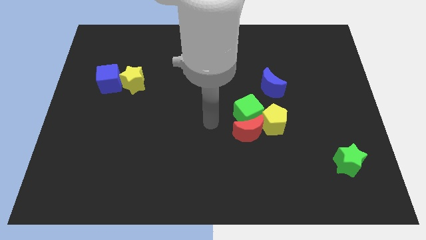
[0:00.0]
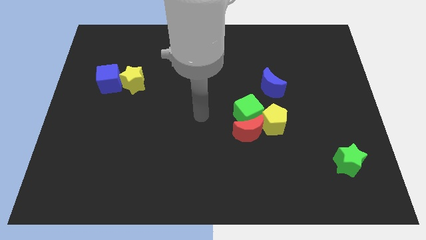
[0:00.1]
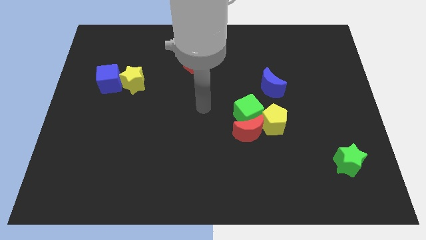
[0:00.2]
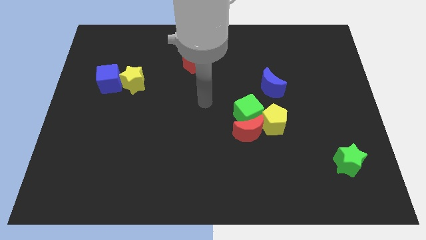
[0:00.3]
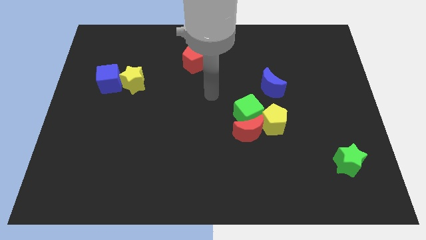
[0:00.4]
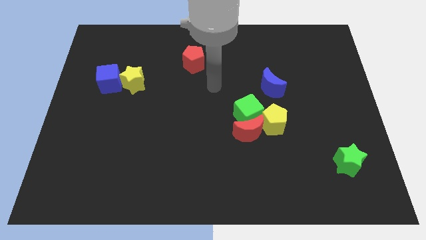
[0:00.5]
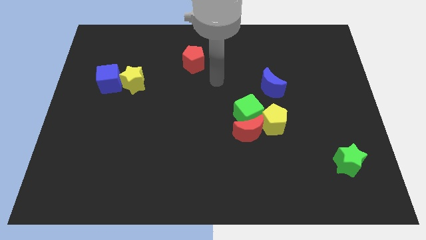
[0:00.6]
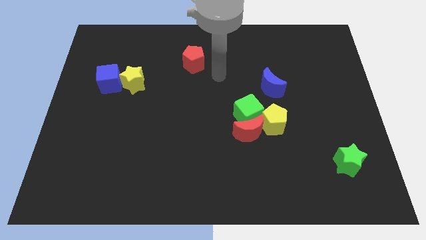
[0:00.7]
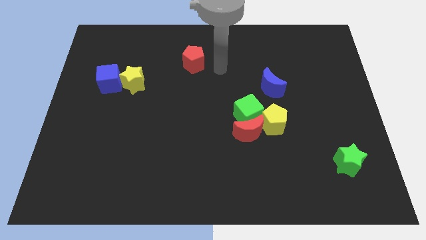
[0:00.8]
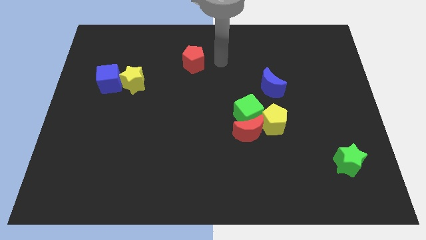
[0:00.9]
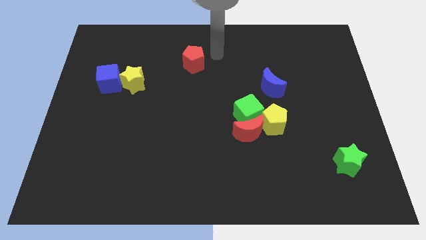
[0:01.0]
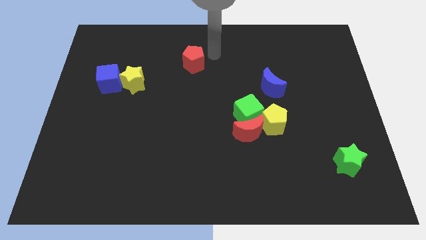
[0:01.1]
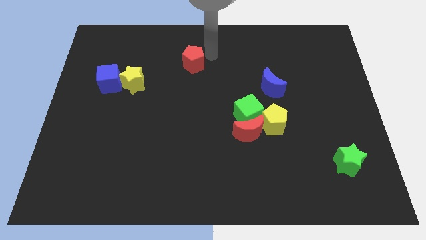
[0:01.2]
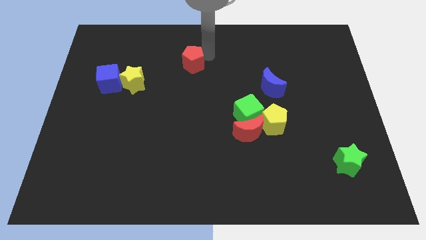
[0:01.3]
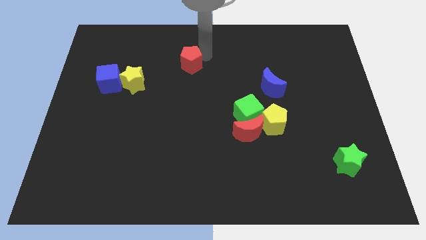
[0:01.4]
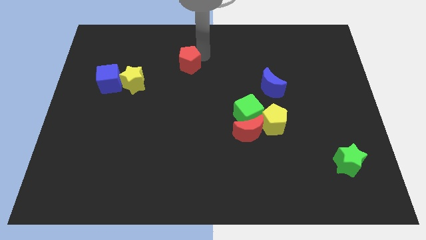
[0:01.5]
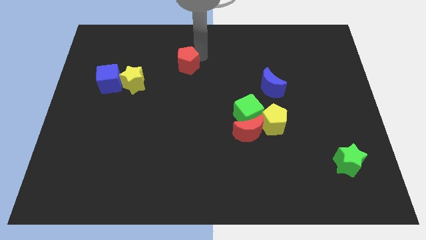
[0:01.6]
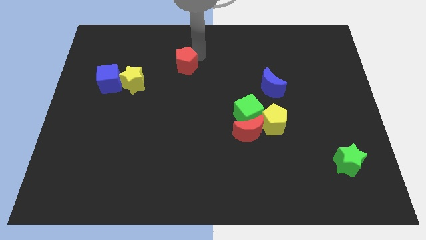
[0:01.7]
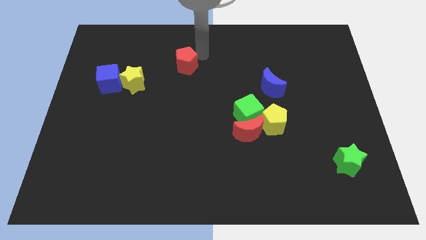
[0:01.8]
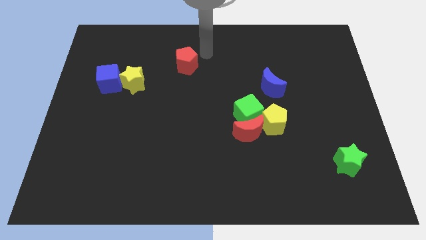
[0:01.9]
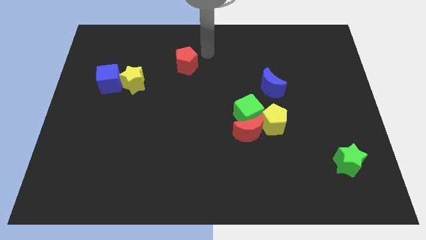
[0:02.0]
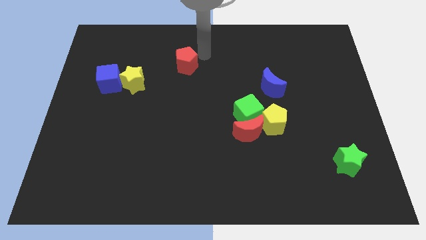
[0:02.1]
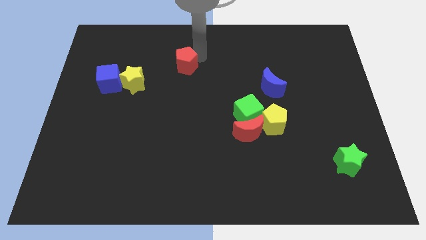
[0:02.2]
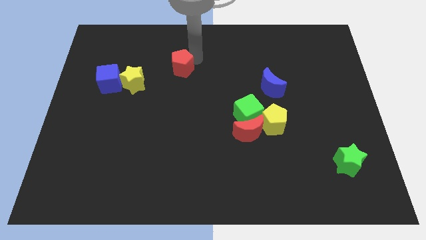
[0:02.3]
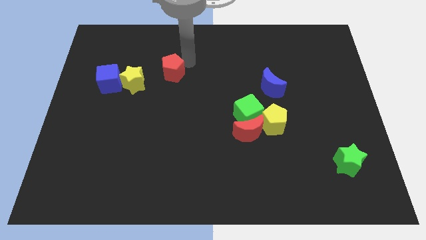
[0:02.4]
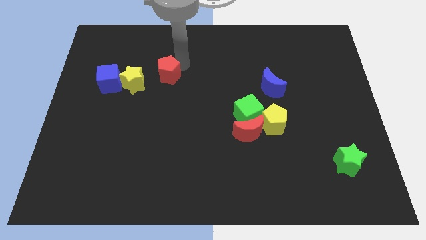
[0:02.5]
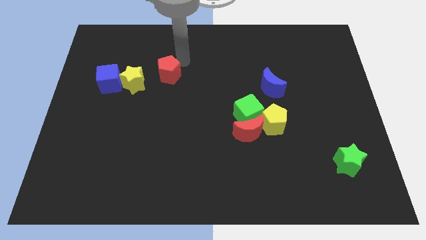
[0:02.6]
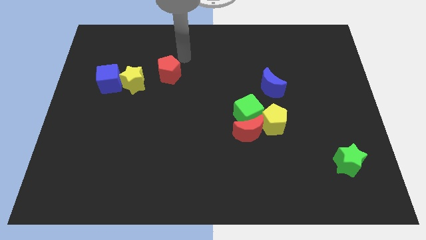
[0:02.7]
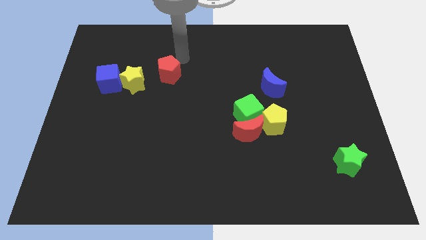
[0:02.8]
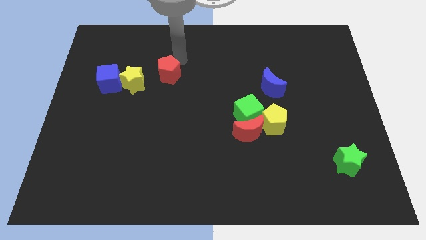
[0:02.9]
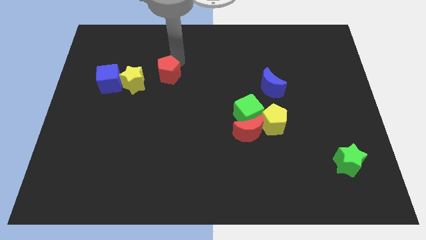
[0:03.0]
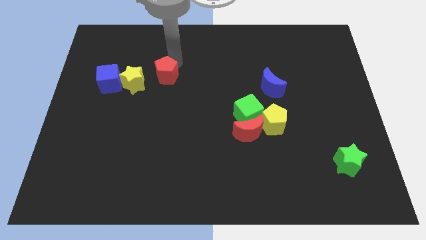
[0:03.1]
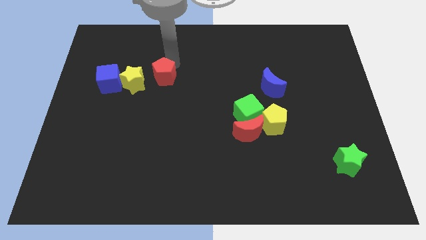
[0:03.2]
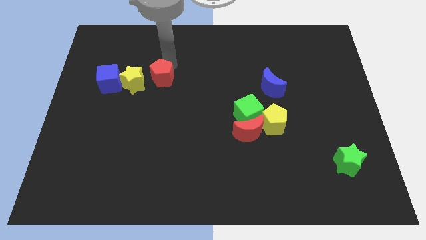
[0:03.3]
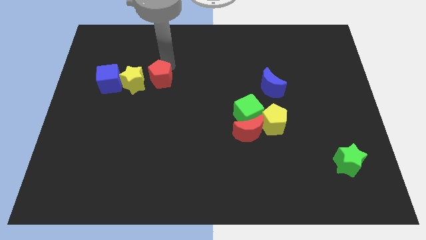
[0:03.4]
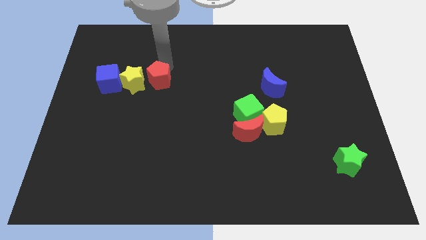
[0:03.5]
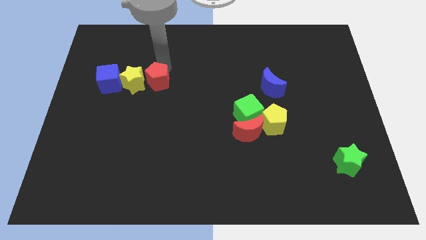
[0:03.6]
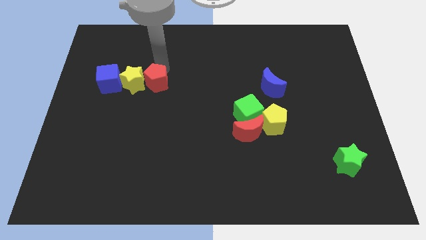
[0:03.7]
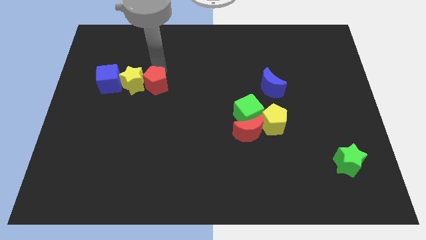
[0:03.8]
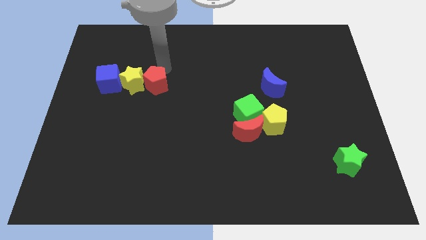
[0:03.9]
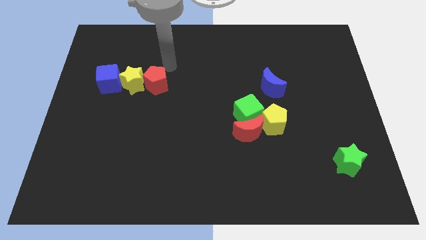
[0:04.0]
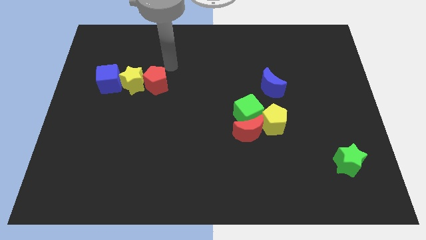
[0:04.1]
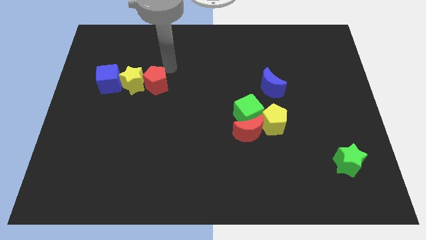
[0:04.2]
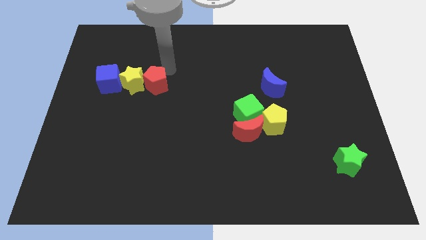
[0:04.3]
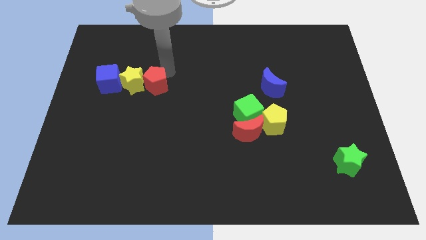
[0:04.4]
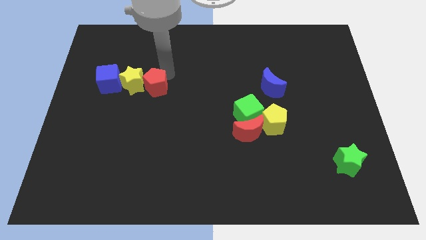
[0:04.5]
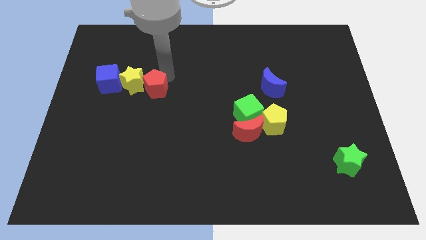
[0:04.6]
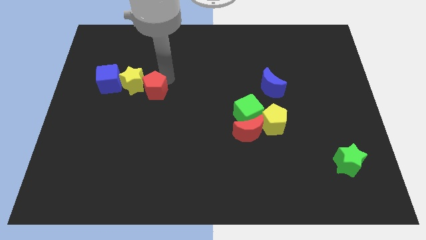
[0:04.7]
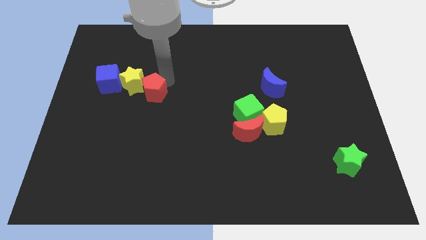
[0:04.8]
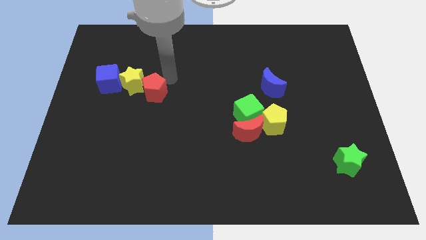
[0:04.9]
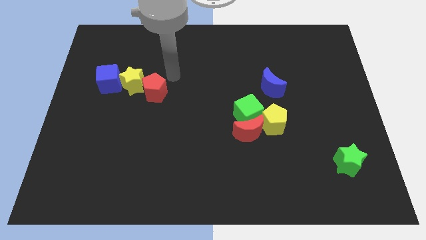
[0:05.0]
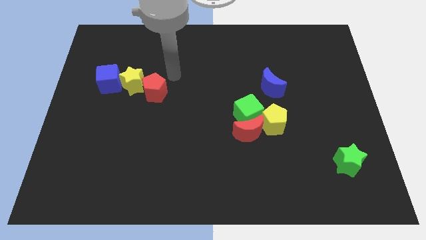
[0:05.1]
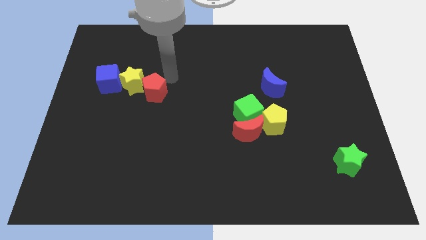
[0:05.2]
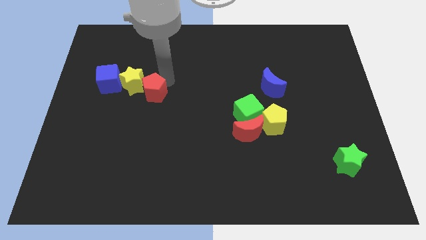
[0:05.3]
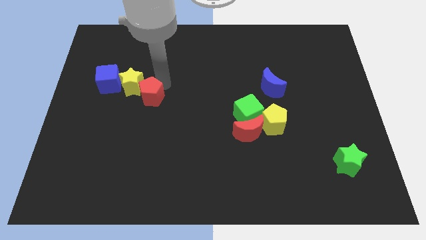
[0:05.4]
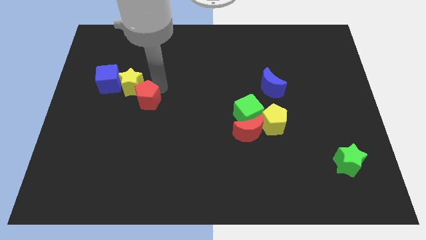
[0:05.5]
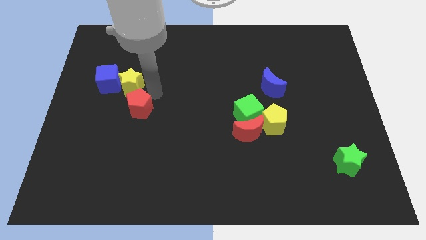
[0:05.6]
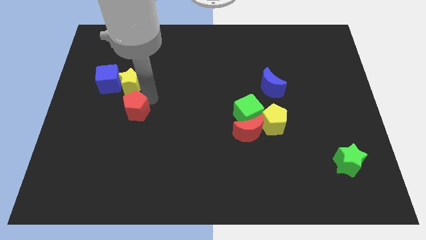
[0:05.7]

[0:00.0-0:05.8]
push the red pentagon down and left

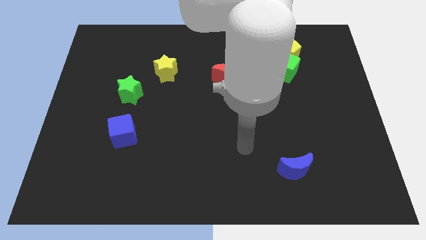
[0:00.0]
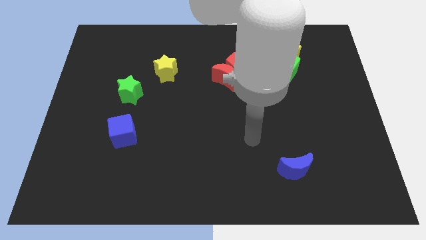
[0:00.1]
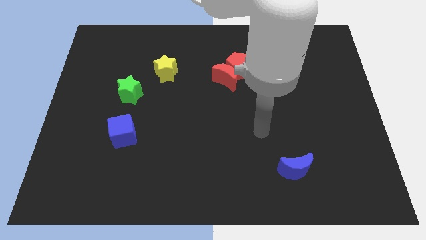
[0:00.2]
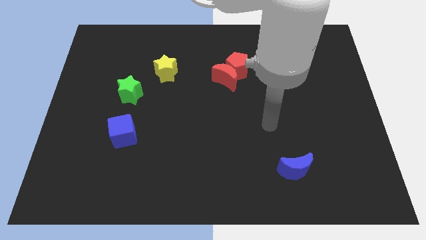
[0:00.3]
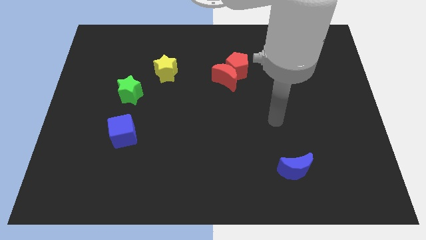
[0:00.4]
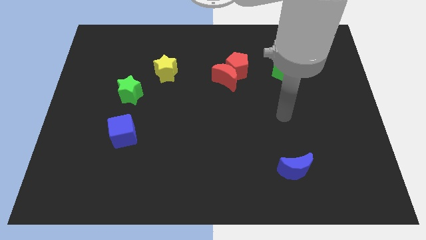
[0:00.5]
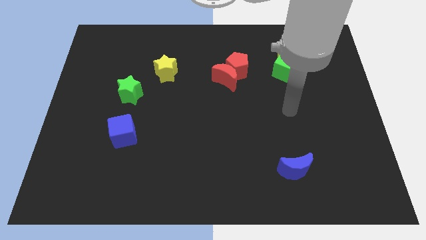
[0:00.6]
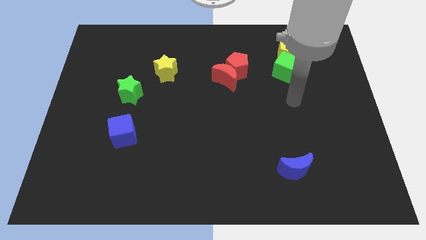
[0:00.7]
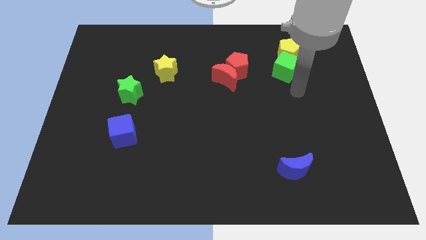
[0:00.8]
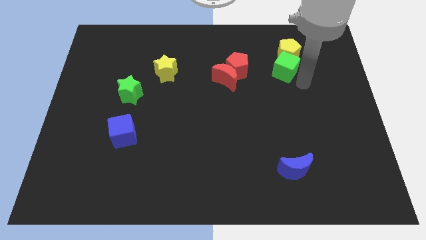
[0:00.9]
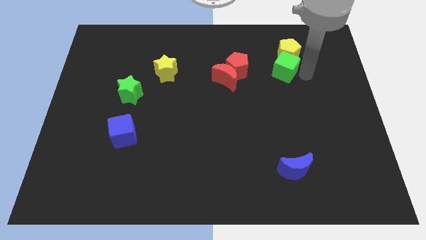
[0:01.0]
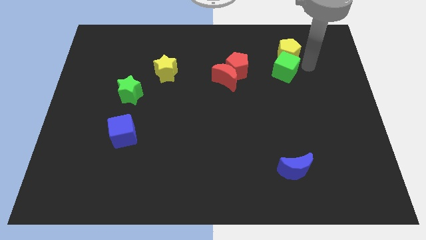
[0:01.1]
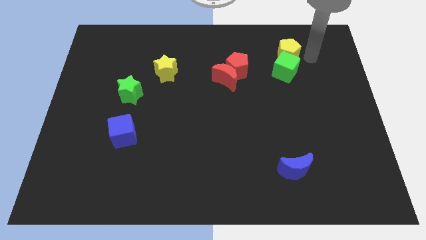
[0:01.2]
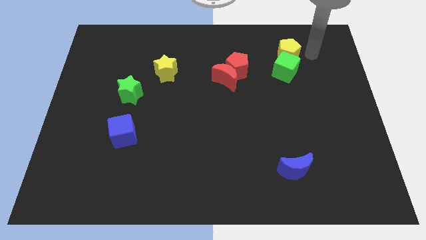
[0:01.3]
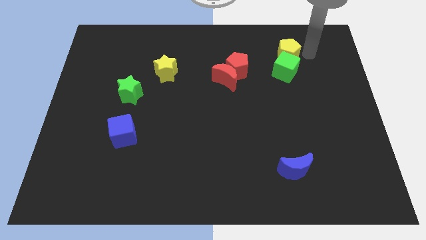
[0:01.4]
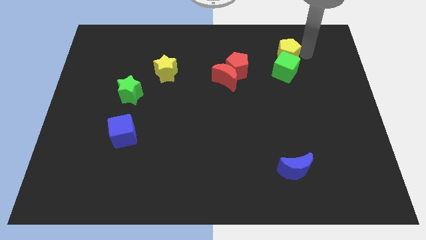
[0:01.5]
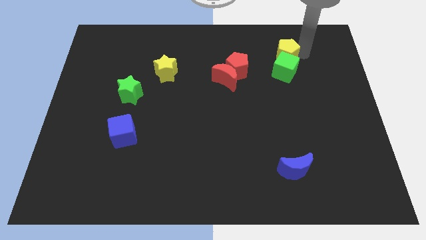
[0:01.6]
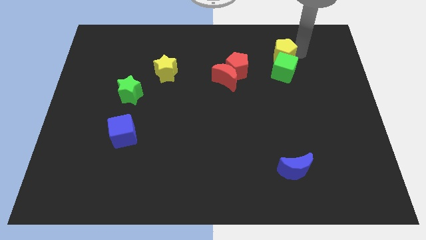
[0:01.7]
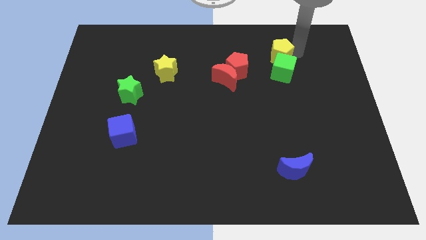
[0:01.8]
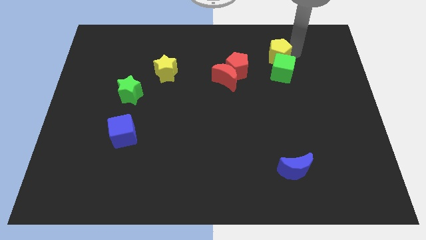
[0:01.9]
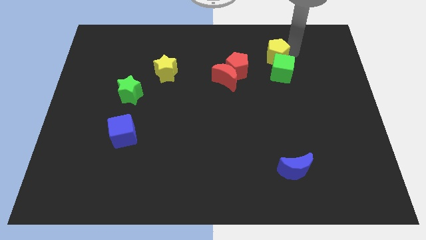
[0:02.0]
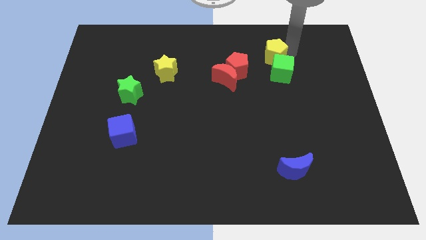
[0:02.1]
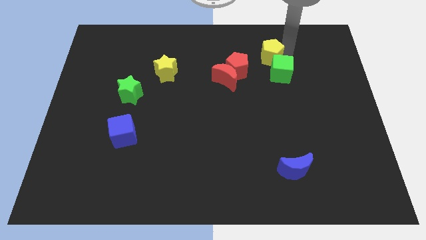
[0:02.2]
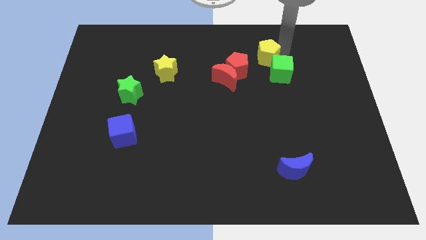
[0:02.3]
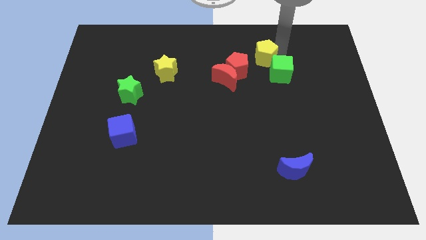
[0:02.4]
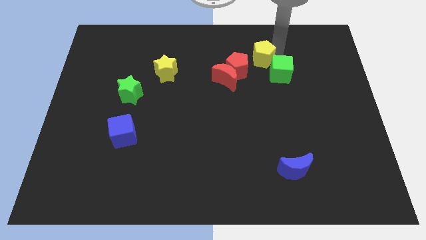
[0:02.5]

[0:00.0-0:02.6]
slide the yellow pentagon to the left slightly
